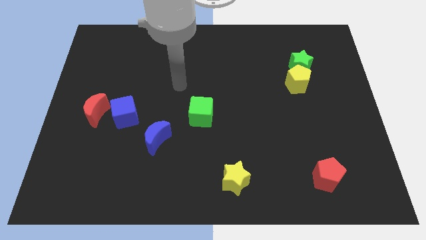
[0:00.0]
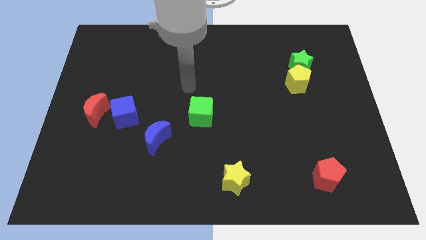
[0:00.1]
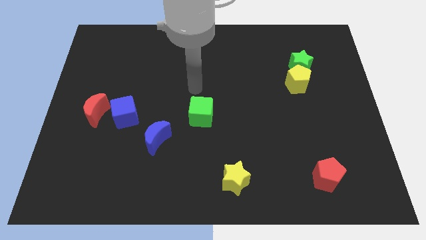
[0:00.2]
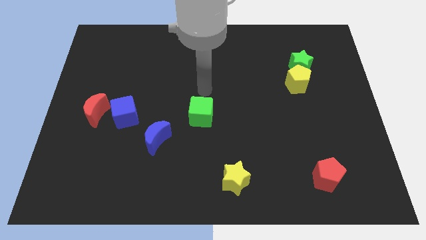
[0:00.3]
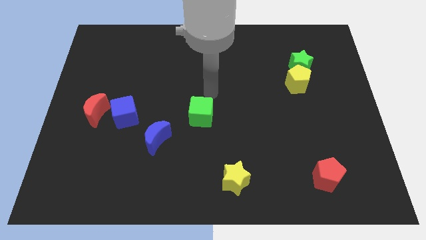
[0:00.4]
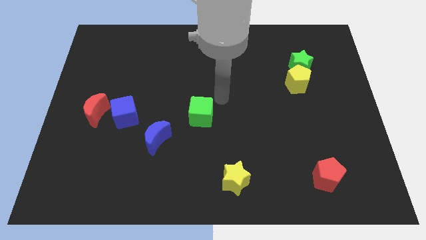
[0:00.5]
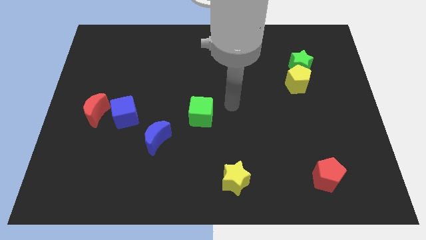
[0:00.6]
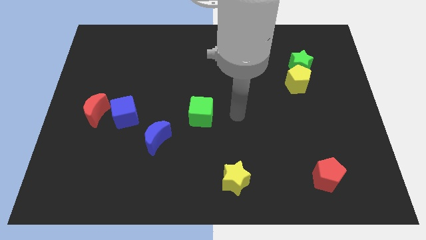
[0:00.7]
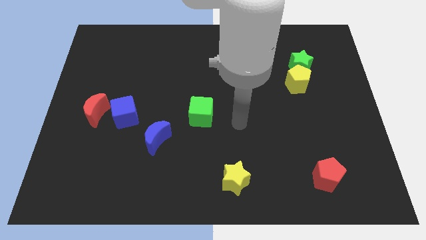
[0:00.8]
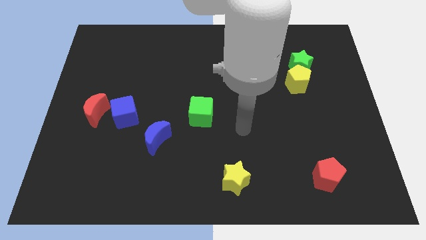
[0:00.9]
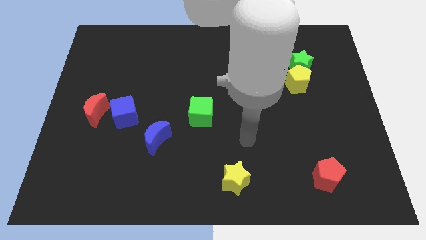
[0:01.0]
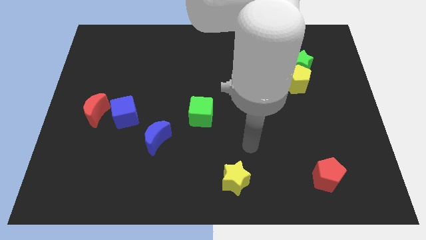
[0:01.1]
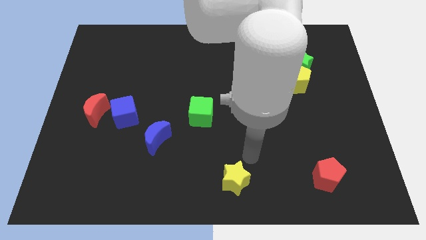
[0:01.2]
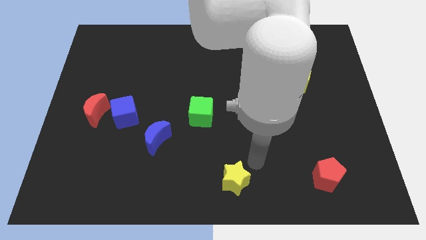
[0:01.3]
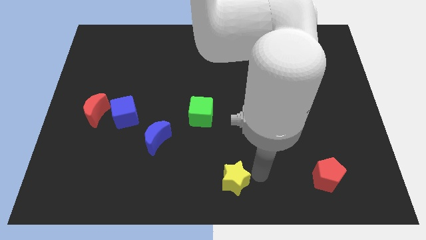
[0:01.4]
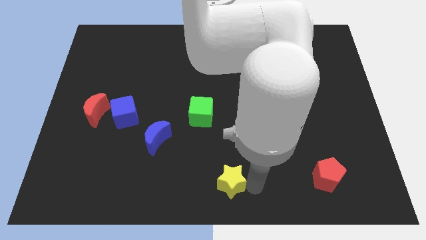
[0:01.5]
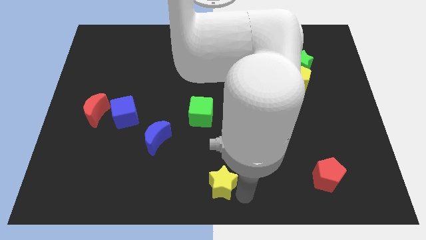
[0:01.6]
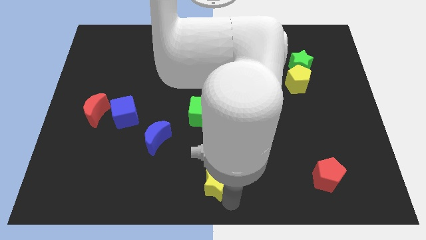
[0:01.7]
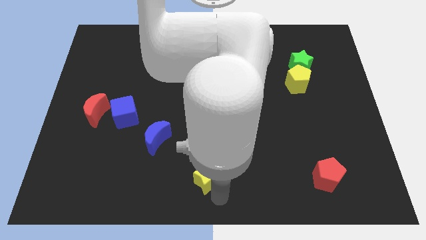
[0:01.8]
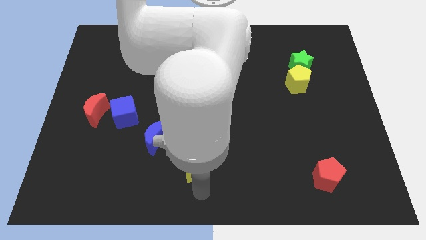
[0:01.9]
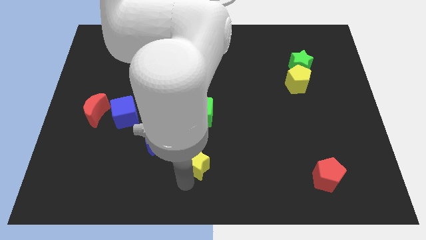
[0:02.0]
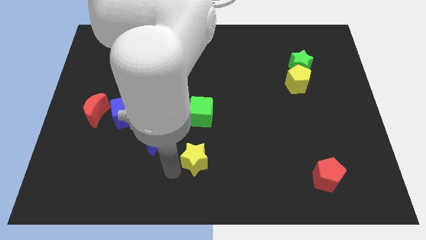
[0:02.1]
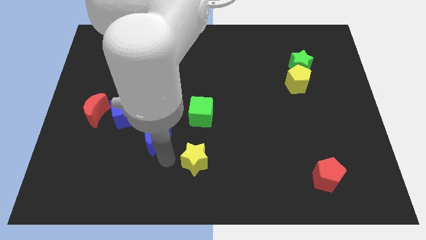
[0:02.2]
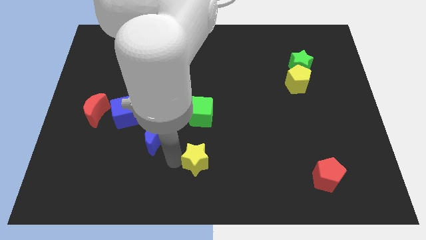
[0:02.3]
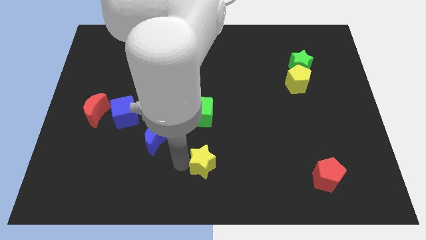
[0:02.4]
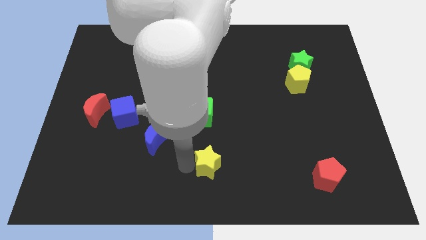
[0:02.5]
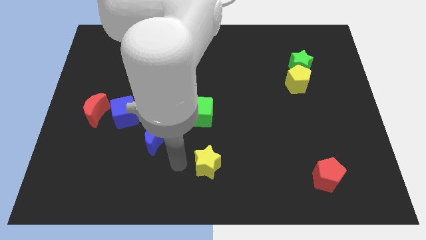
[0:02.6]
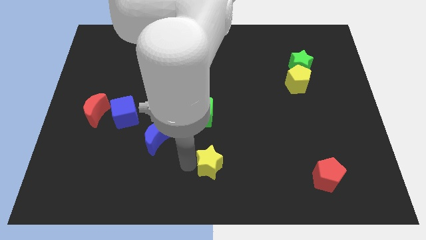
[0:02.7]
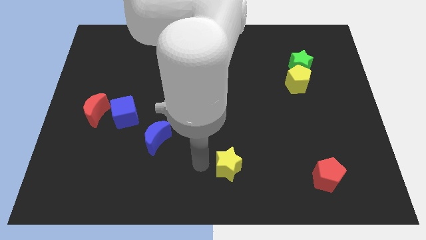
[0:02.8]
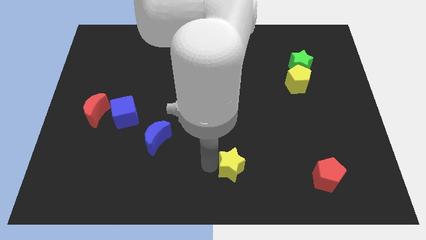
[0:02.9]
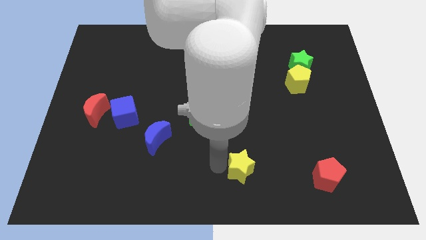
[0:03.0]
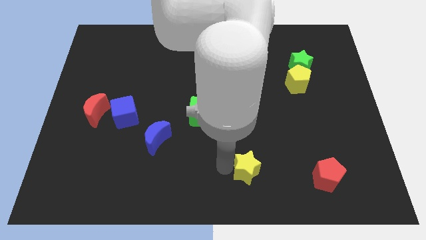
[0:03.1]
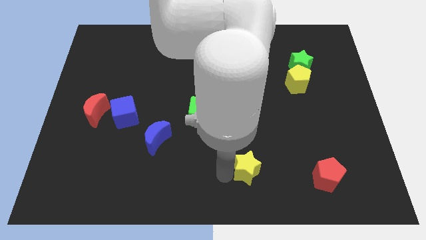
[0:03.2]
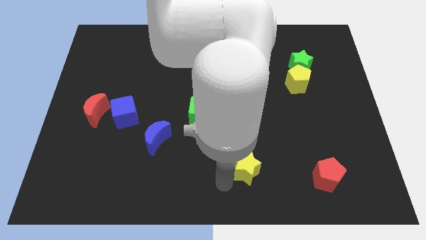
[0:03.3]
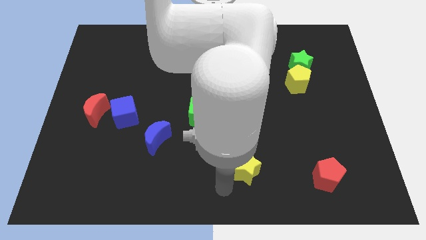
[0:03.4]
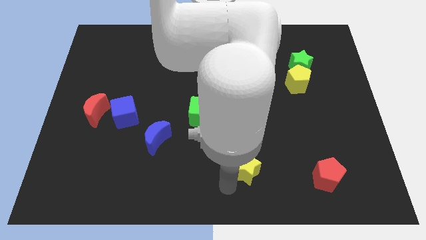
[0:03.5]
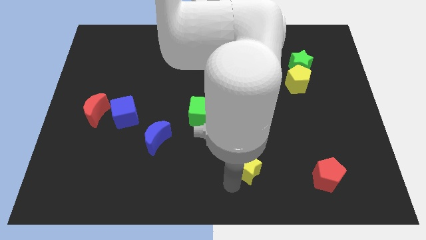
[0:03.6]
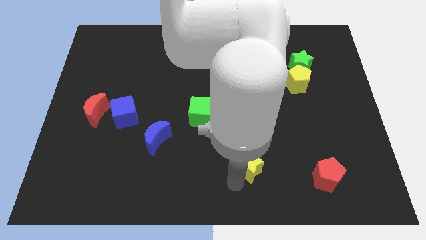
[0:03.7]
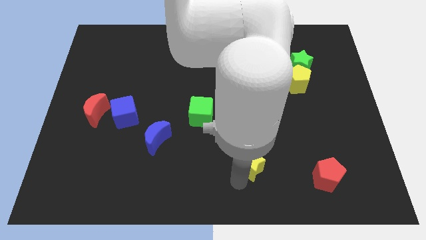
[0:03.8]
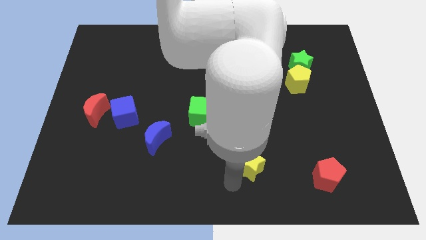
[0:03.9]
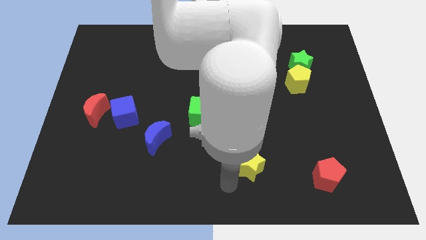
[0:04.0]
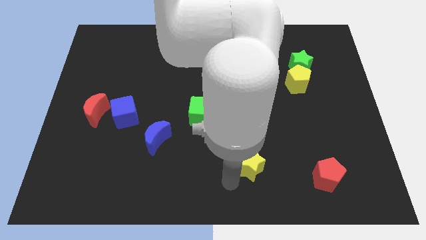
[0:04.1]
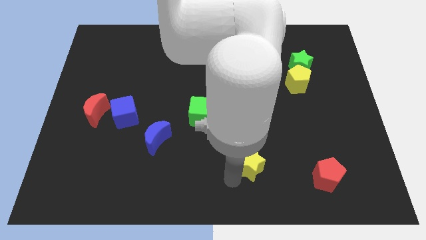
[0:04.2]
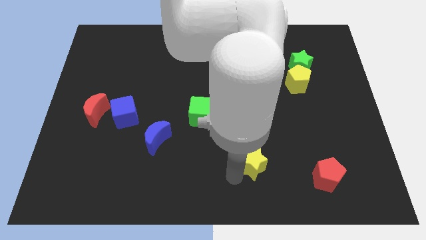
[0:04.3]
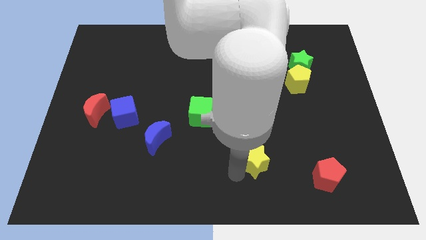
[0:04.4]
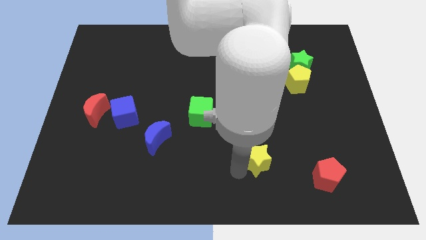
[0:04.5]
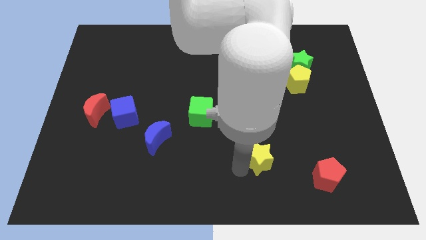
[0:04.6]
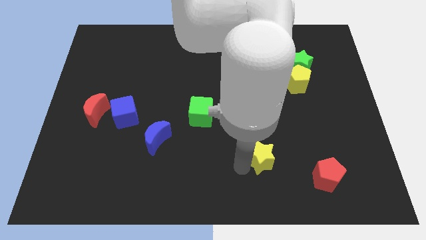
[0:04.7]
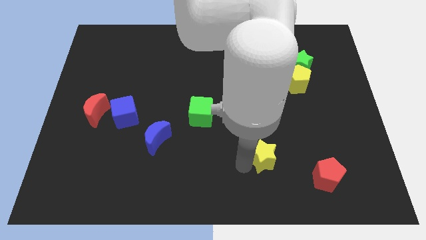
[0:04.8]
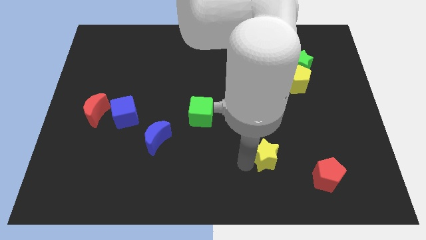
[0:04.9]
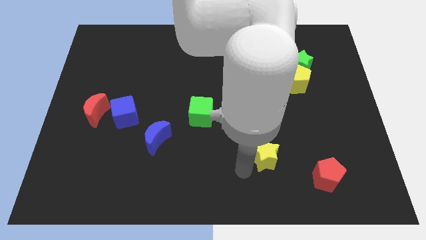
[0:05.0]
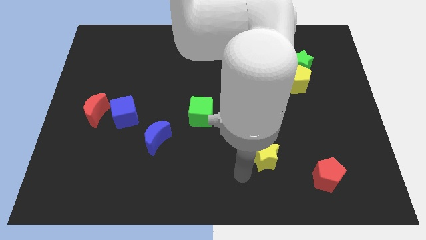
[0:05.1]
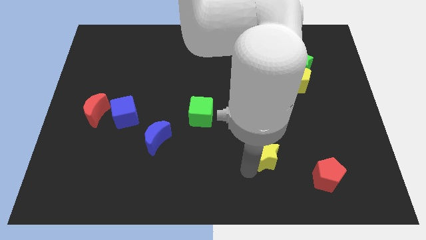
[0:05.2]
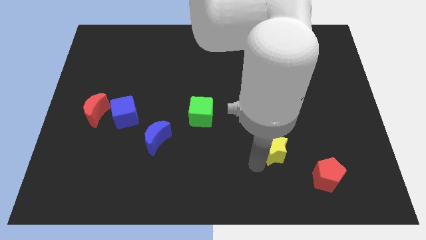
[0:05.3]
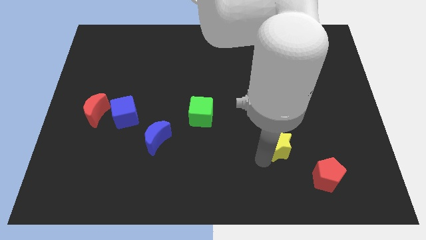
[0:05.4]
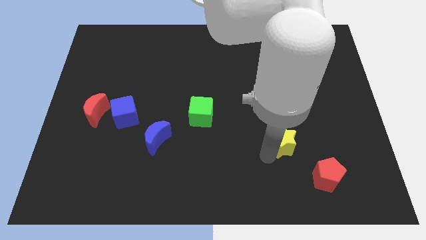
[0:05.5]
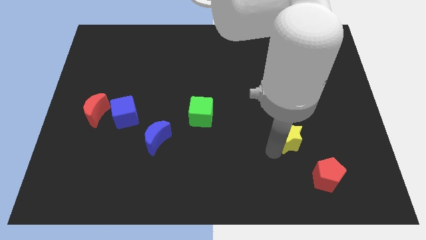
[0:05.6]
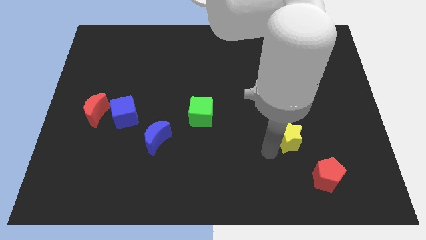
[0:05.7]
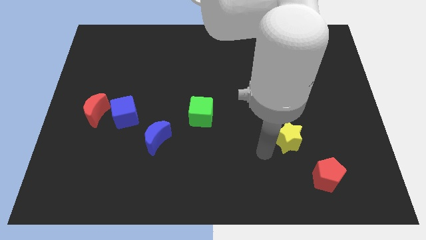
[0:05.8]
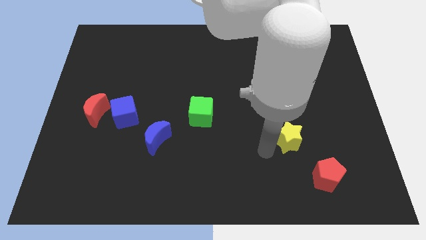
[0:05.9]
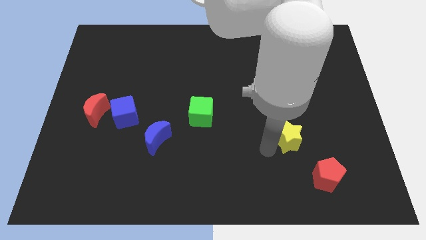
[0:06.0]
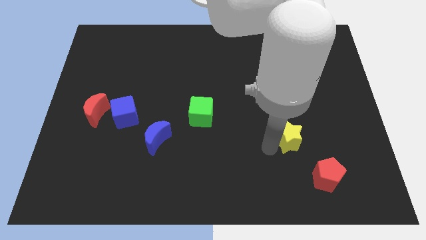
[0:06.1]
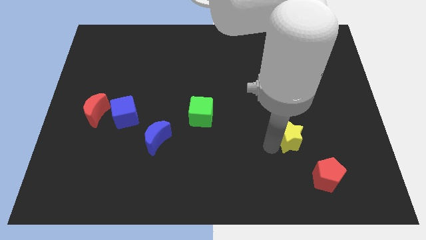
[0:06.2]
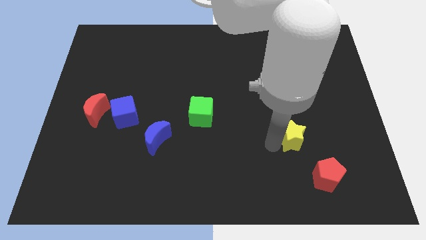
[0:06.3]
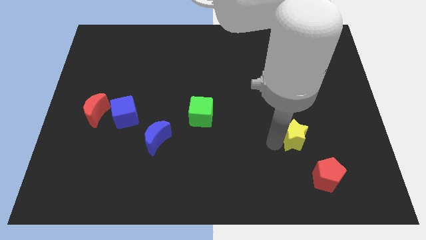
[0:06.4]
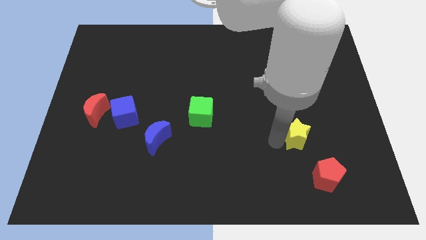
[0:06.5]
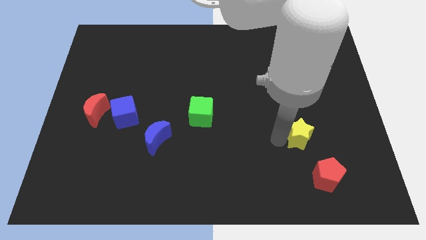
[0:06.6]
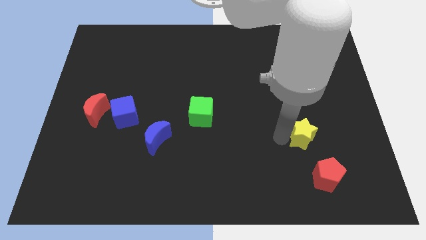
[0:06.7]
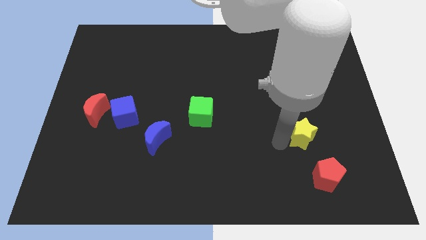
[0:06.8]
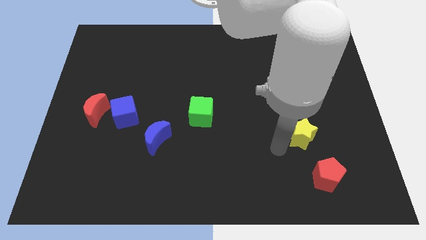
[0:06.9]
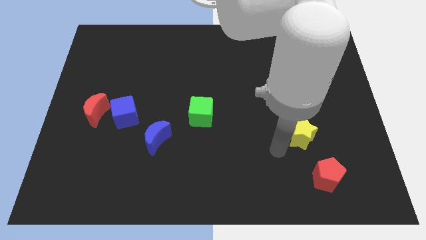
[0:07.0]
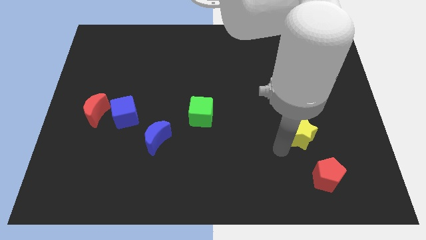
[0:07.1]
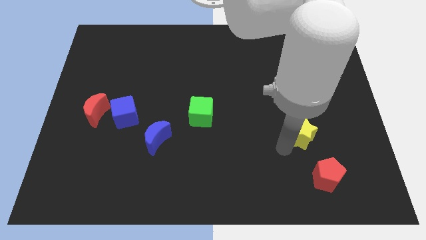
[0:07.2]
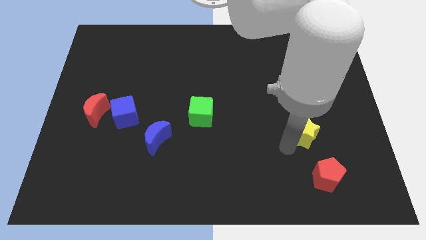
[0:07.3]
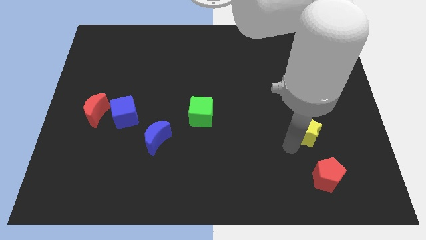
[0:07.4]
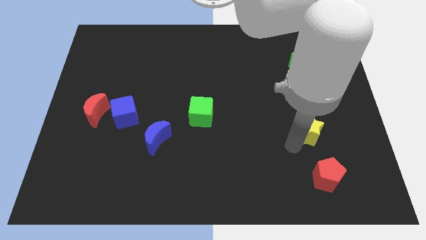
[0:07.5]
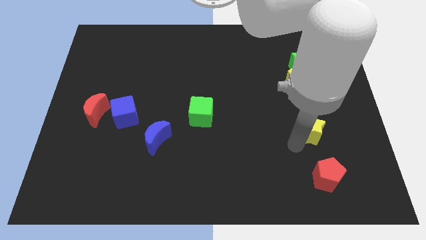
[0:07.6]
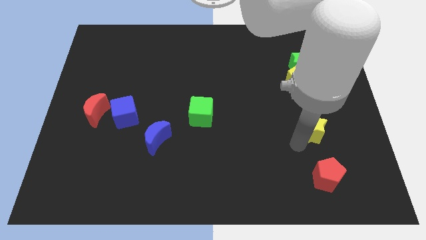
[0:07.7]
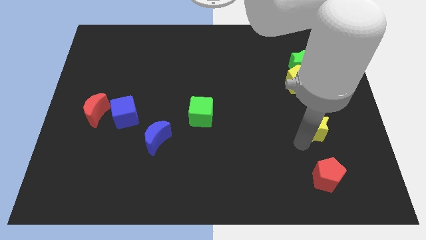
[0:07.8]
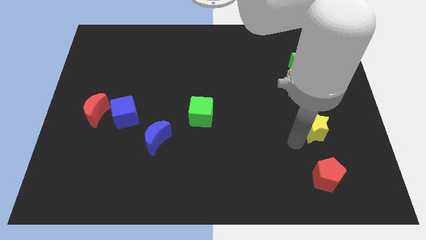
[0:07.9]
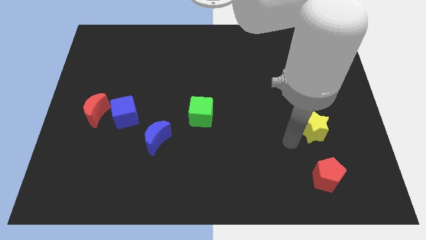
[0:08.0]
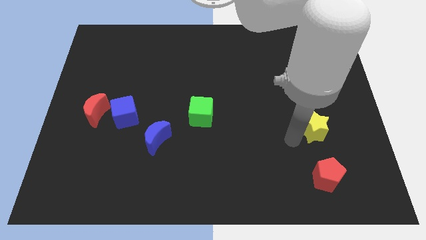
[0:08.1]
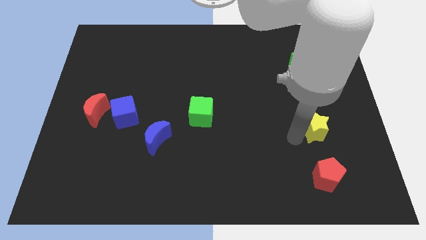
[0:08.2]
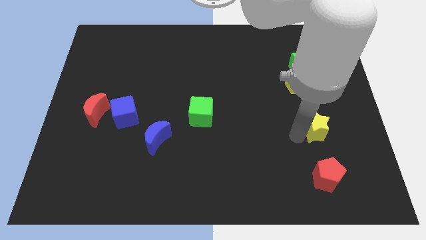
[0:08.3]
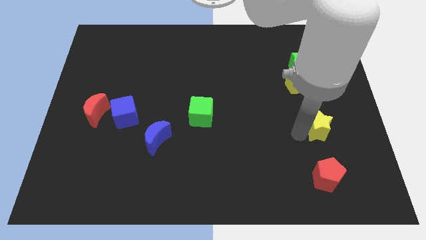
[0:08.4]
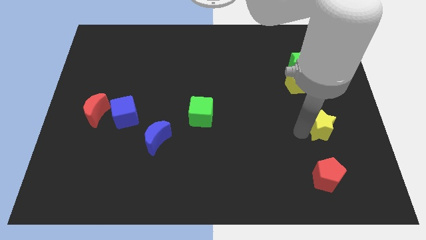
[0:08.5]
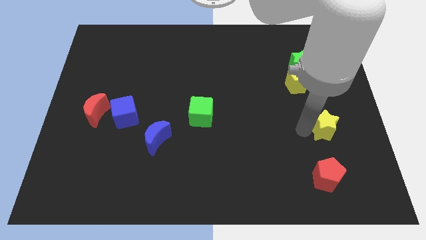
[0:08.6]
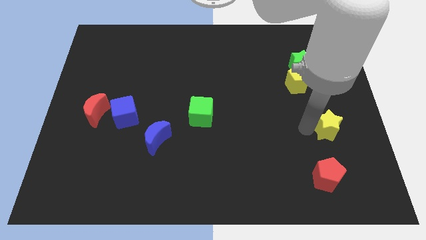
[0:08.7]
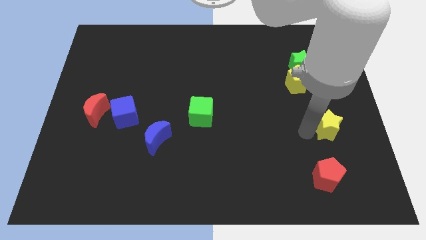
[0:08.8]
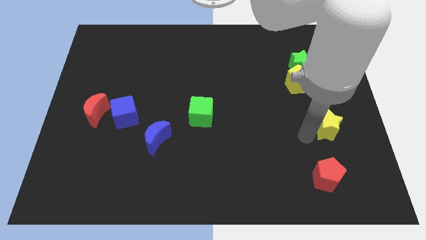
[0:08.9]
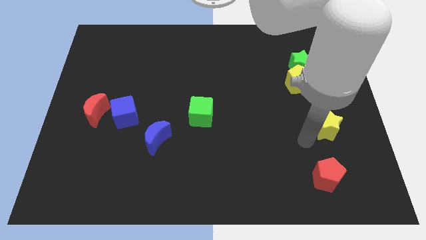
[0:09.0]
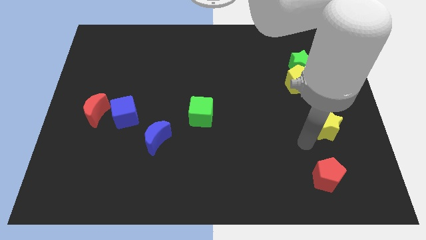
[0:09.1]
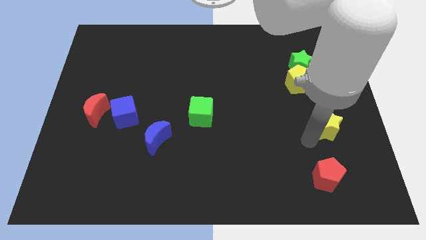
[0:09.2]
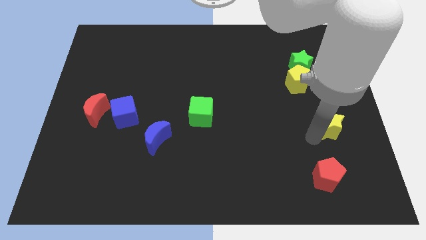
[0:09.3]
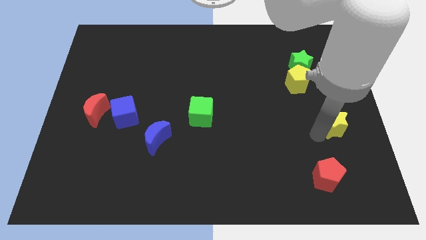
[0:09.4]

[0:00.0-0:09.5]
put the yellow star to the center right
